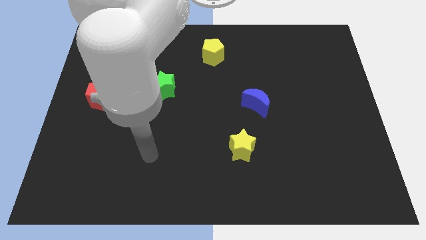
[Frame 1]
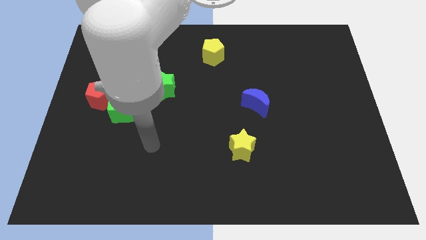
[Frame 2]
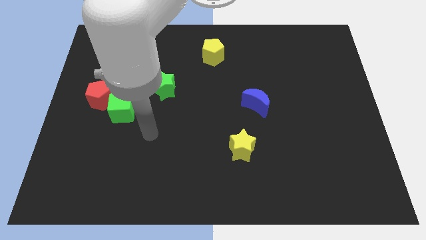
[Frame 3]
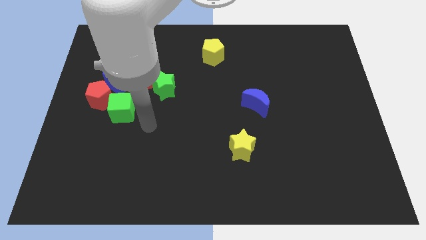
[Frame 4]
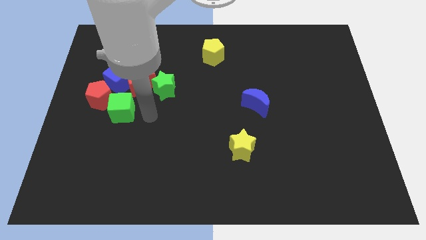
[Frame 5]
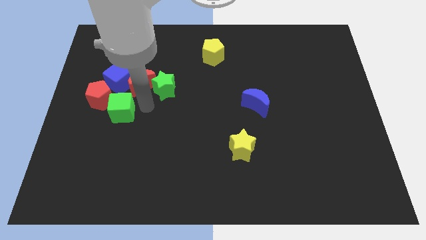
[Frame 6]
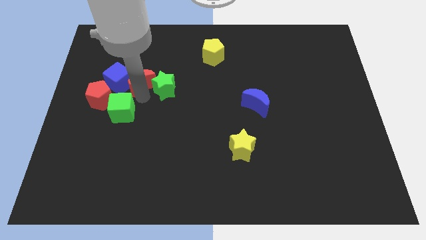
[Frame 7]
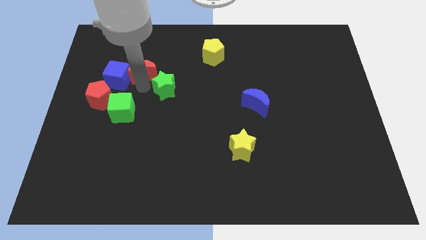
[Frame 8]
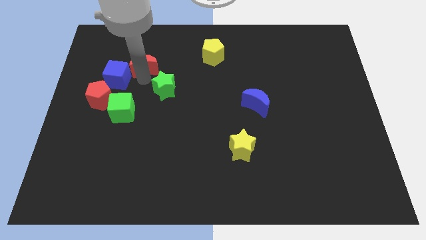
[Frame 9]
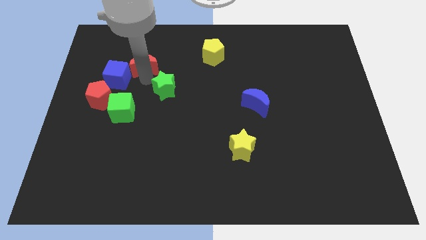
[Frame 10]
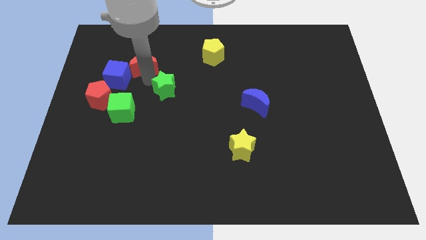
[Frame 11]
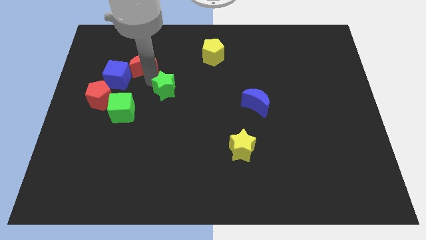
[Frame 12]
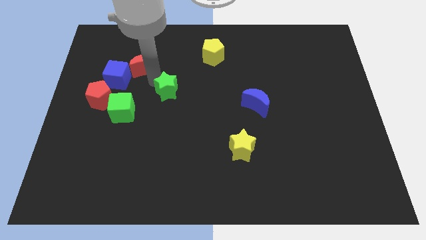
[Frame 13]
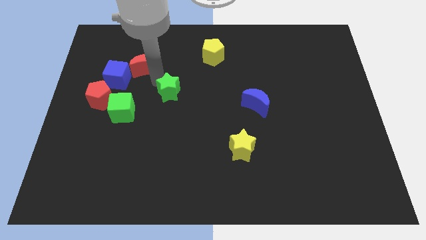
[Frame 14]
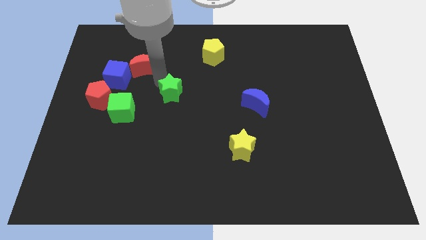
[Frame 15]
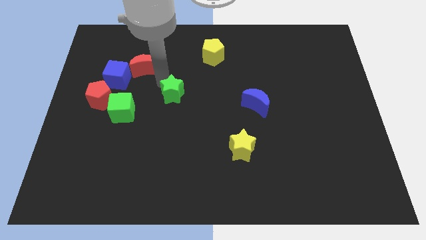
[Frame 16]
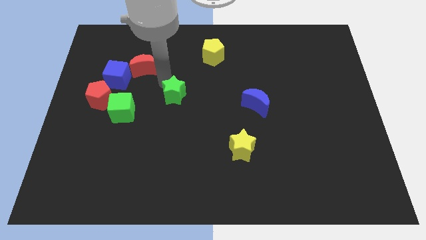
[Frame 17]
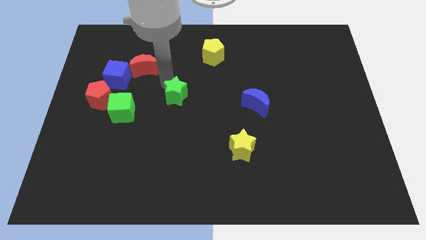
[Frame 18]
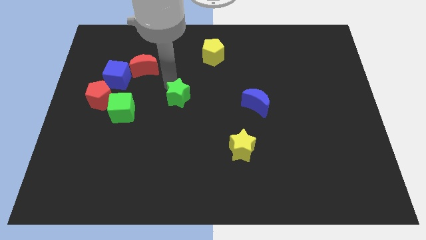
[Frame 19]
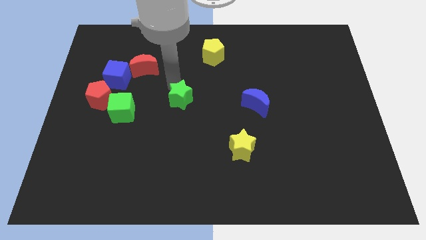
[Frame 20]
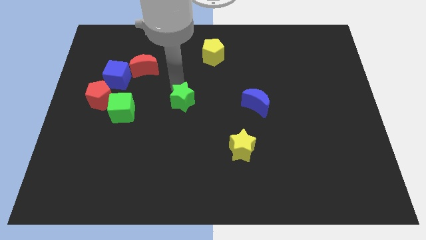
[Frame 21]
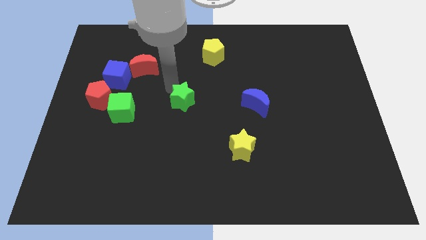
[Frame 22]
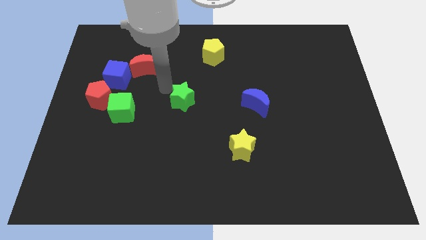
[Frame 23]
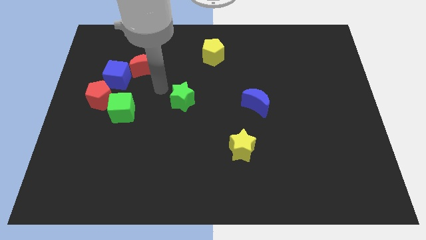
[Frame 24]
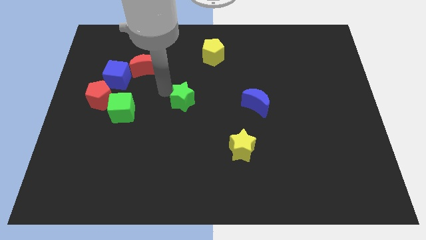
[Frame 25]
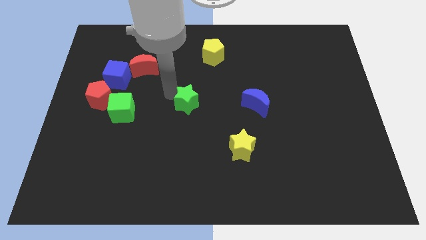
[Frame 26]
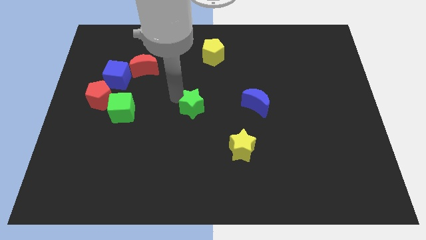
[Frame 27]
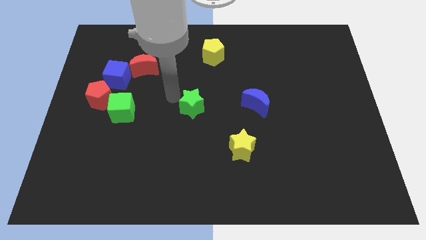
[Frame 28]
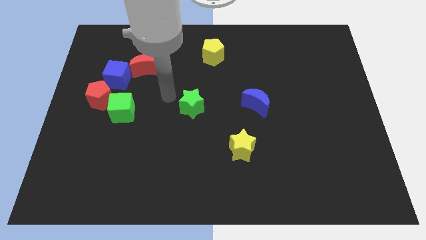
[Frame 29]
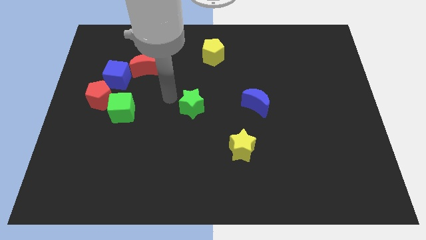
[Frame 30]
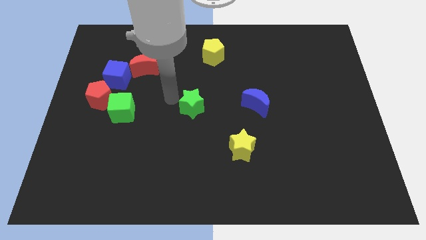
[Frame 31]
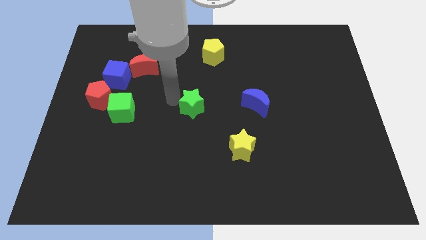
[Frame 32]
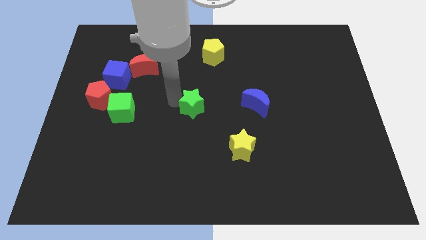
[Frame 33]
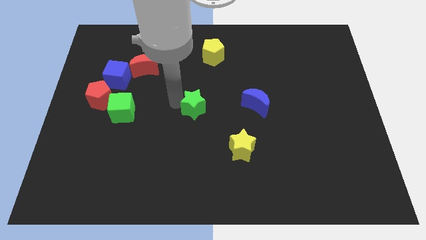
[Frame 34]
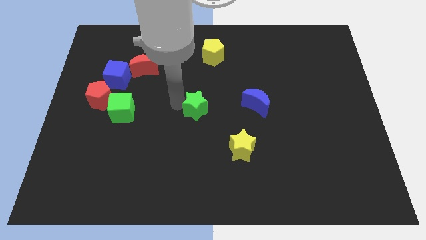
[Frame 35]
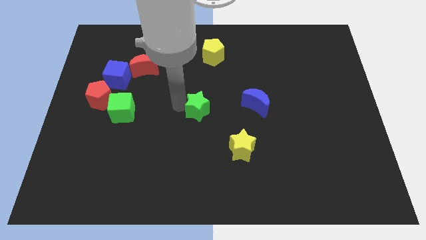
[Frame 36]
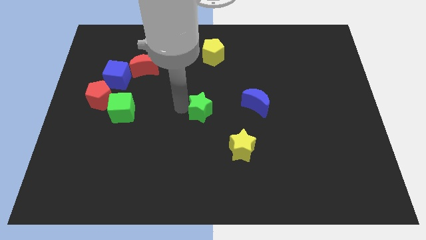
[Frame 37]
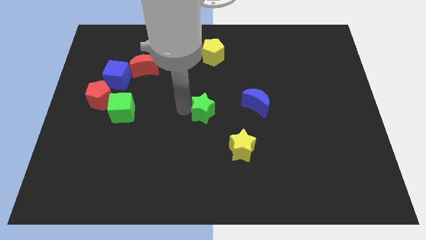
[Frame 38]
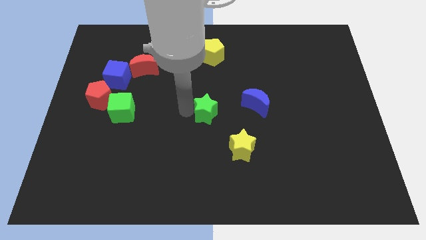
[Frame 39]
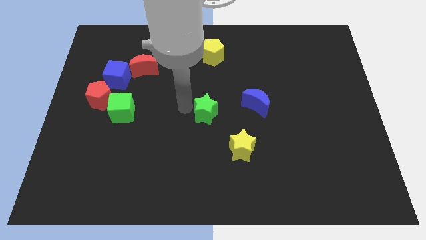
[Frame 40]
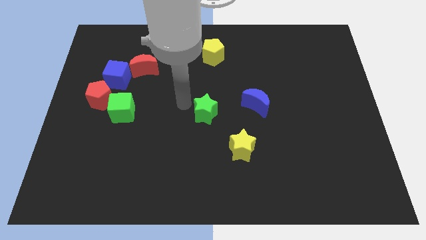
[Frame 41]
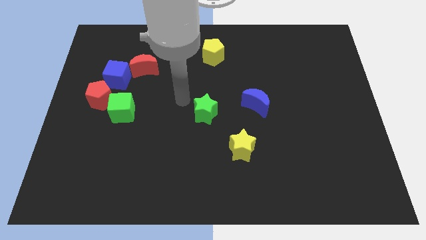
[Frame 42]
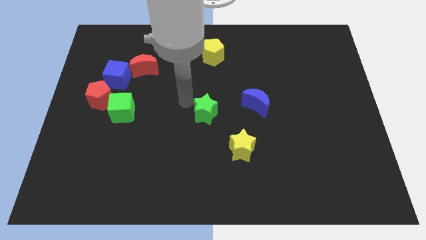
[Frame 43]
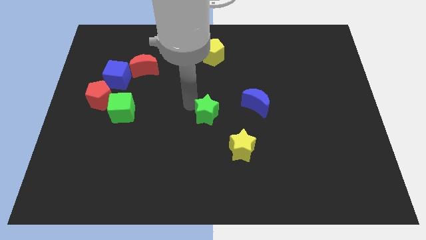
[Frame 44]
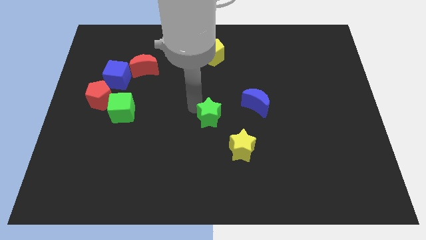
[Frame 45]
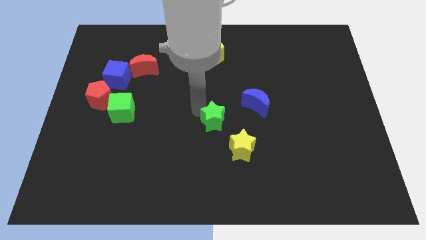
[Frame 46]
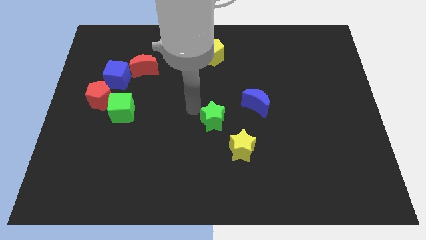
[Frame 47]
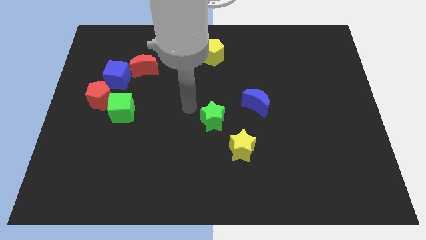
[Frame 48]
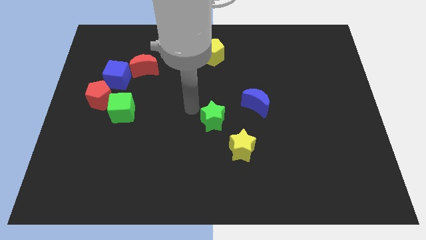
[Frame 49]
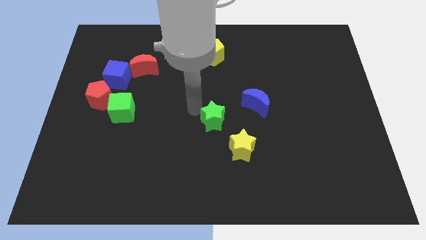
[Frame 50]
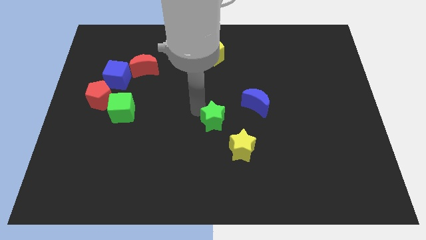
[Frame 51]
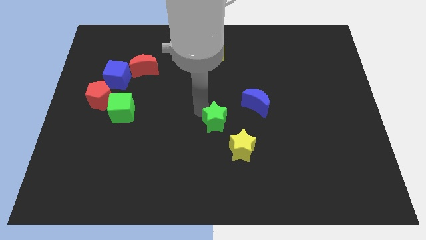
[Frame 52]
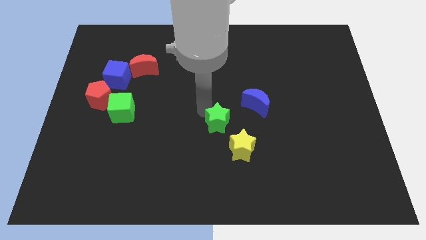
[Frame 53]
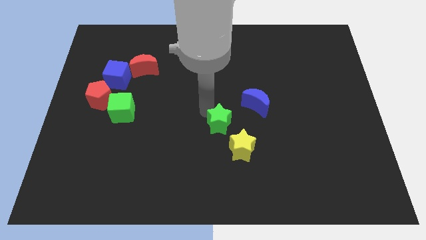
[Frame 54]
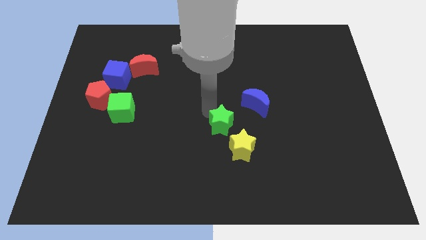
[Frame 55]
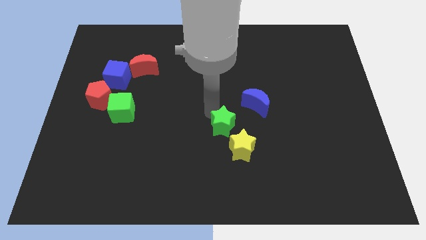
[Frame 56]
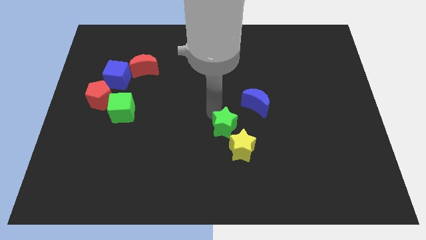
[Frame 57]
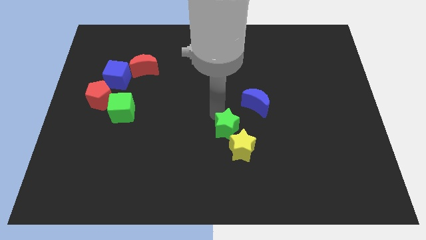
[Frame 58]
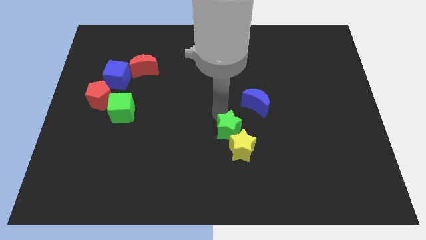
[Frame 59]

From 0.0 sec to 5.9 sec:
slide the green star to the yellow star
